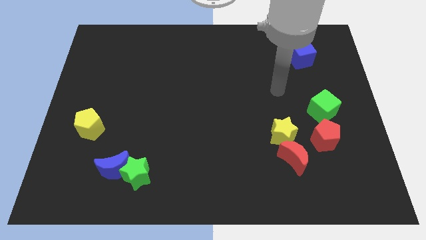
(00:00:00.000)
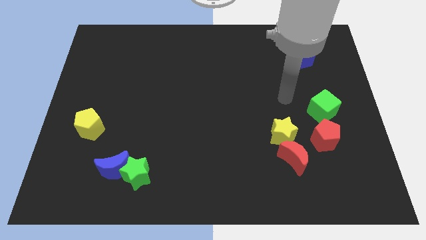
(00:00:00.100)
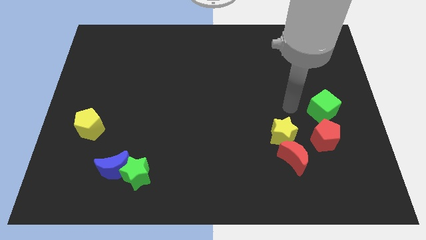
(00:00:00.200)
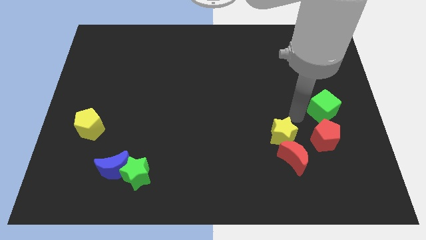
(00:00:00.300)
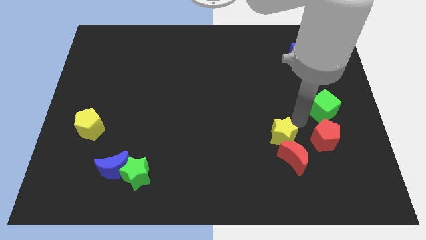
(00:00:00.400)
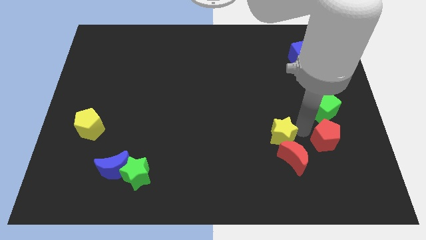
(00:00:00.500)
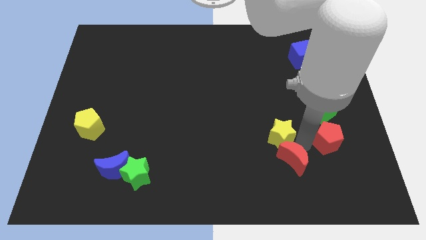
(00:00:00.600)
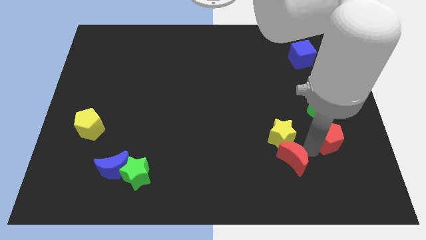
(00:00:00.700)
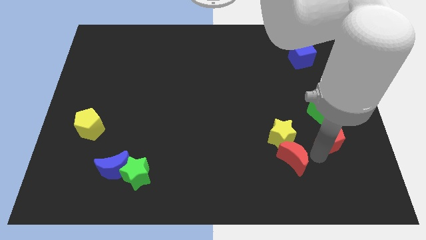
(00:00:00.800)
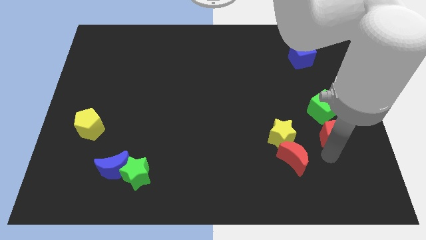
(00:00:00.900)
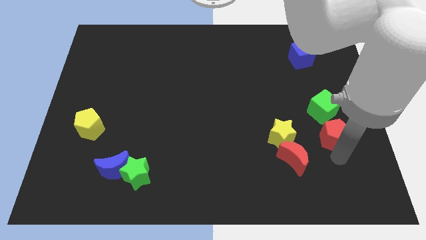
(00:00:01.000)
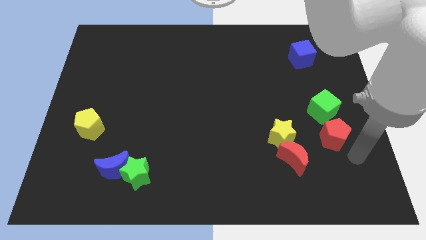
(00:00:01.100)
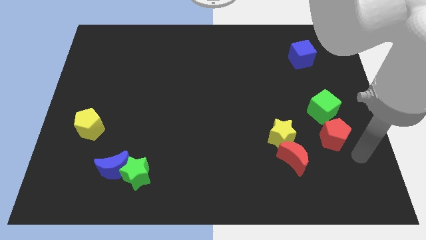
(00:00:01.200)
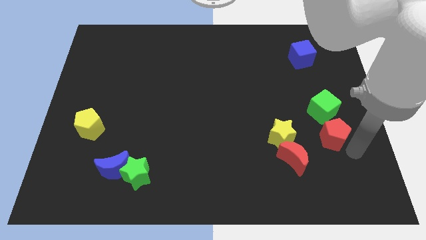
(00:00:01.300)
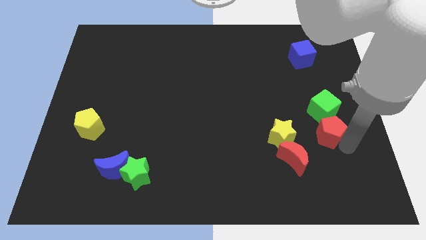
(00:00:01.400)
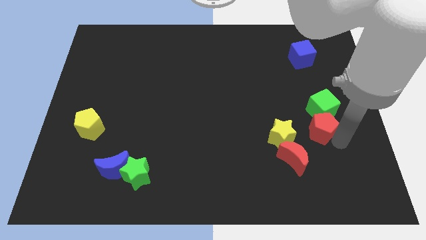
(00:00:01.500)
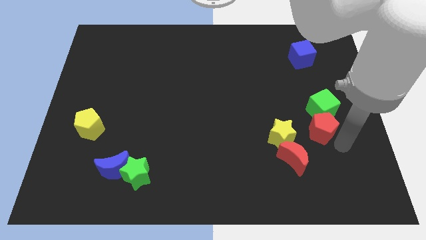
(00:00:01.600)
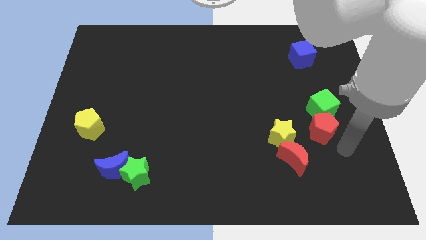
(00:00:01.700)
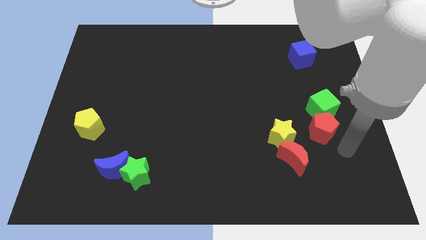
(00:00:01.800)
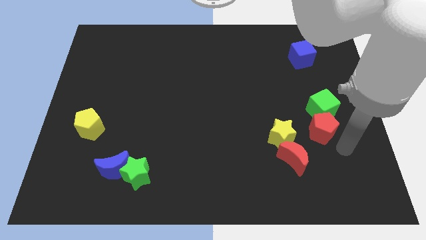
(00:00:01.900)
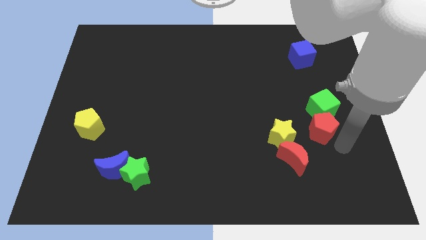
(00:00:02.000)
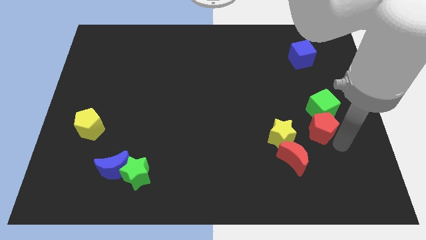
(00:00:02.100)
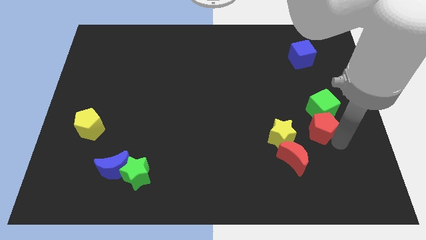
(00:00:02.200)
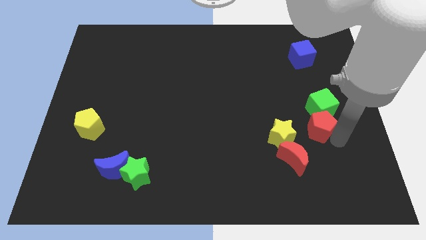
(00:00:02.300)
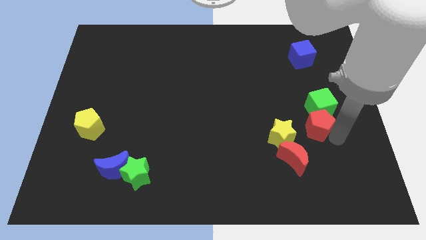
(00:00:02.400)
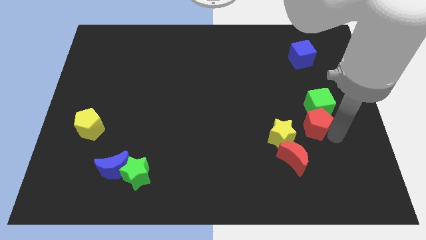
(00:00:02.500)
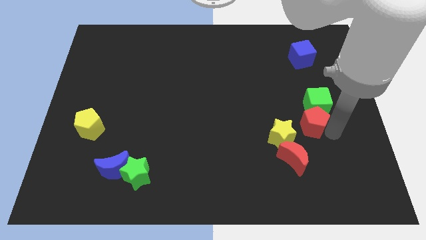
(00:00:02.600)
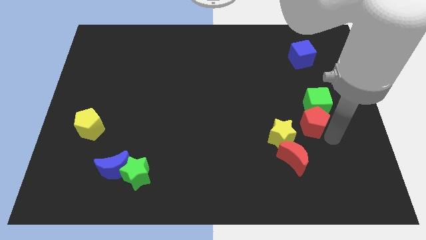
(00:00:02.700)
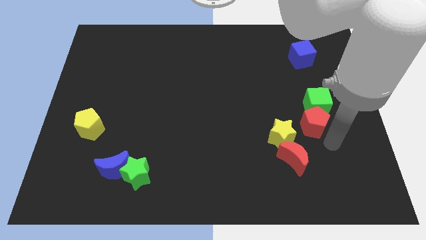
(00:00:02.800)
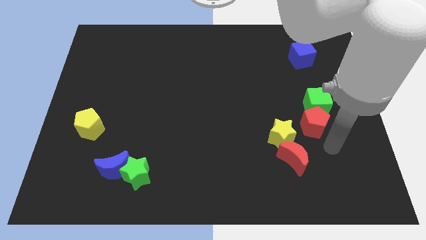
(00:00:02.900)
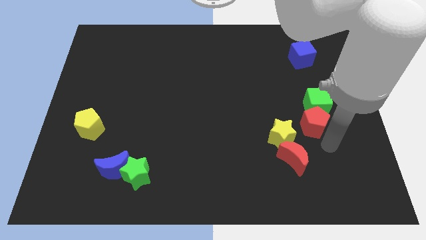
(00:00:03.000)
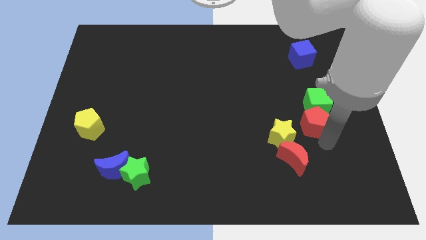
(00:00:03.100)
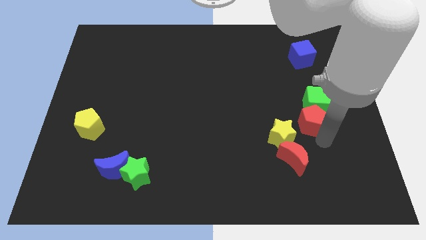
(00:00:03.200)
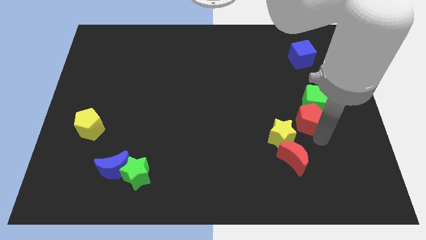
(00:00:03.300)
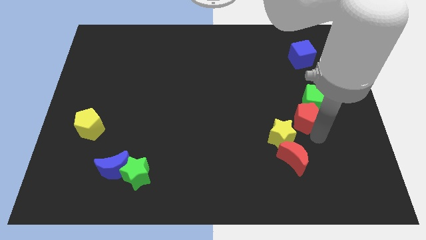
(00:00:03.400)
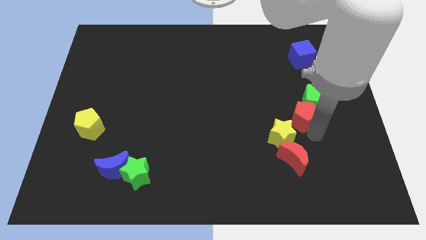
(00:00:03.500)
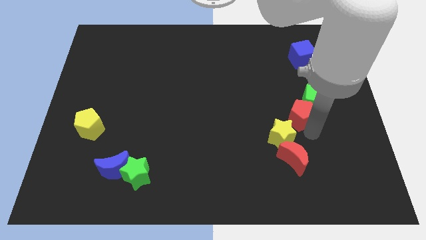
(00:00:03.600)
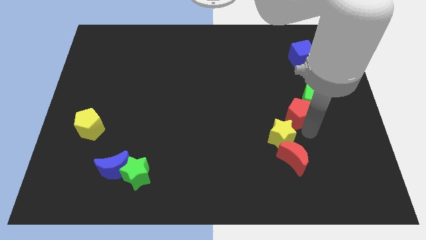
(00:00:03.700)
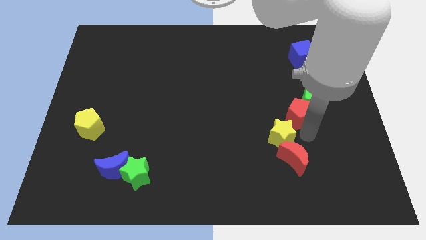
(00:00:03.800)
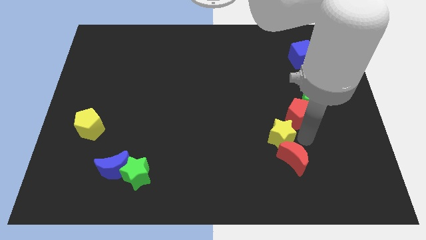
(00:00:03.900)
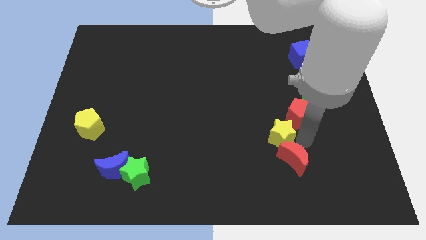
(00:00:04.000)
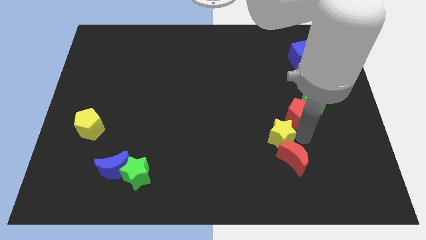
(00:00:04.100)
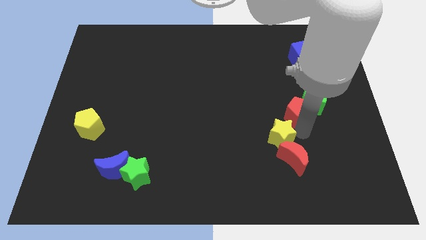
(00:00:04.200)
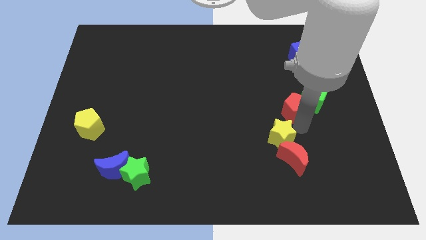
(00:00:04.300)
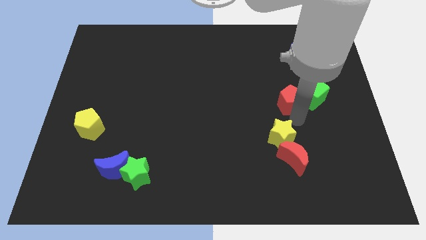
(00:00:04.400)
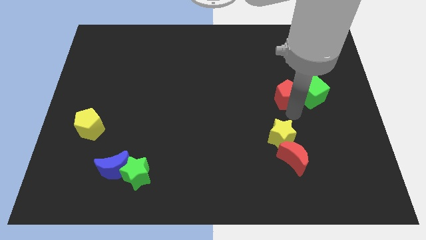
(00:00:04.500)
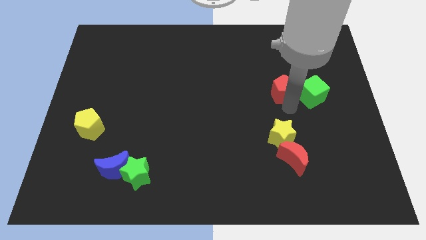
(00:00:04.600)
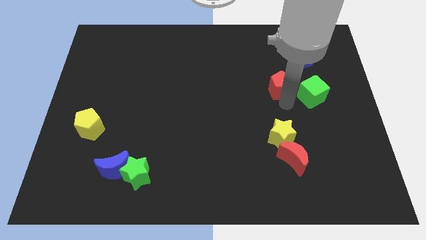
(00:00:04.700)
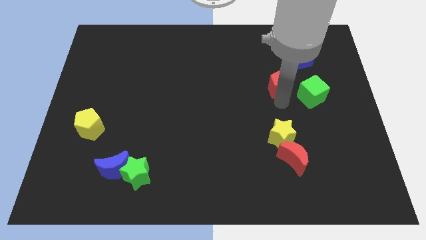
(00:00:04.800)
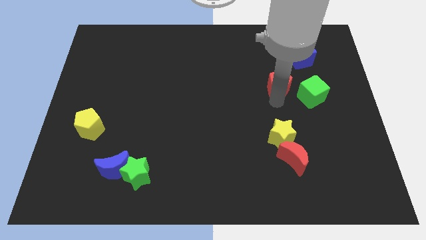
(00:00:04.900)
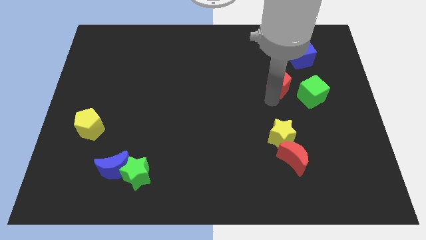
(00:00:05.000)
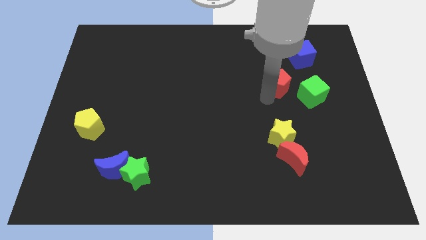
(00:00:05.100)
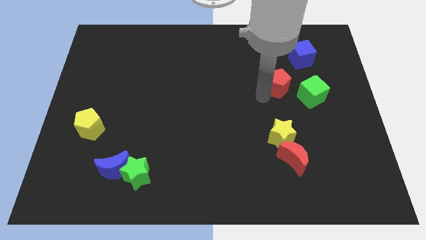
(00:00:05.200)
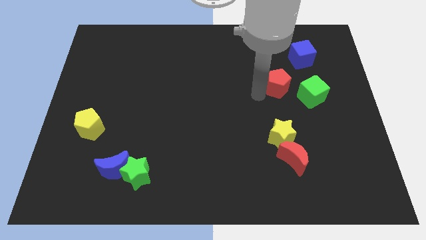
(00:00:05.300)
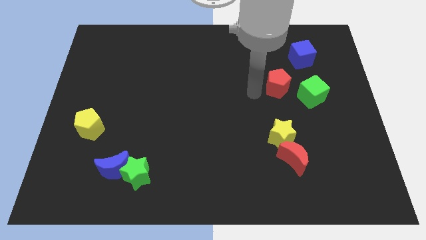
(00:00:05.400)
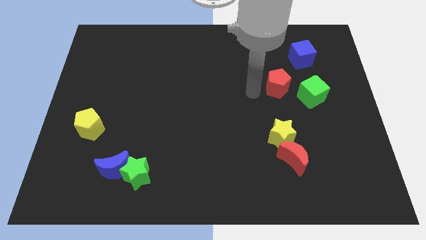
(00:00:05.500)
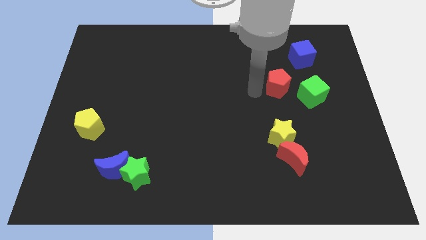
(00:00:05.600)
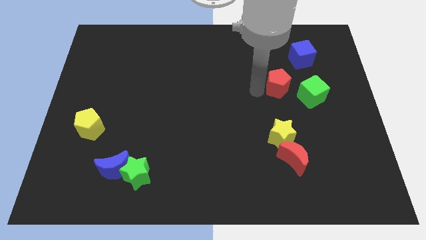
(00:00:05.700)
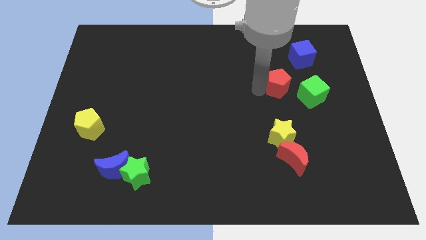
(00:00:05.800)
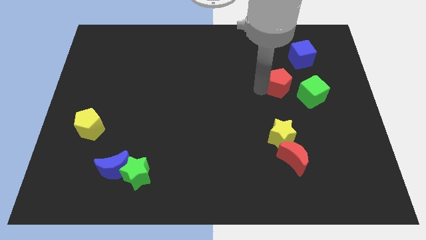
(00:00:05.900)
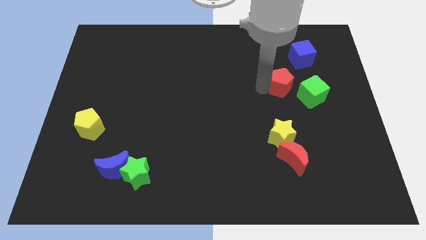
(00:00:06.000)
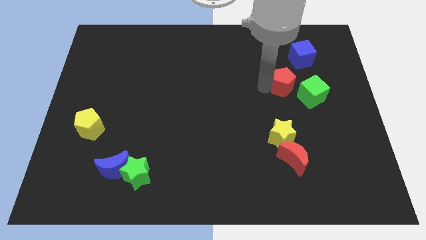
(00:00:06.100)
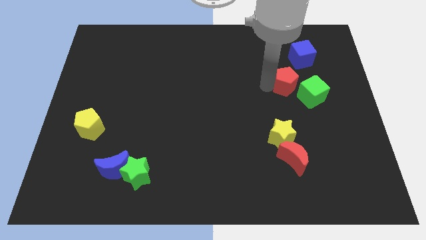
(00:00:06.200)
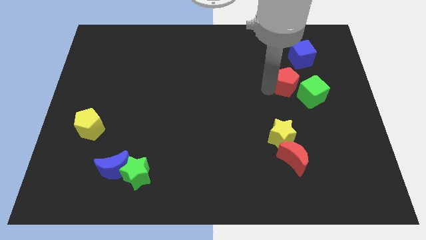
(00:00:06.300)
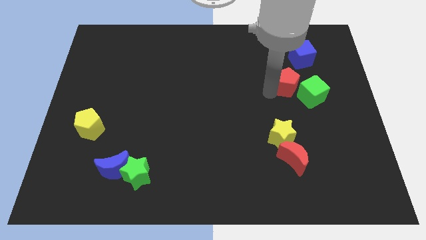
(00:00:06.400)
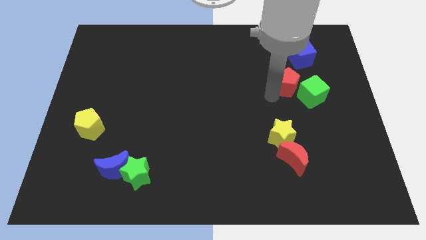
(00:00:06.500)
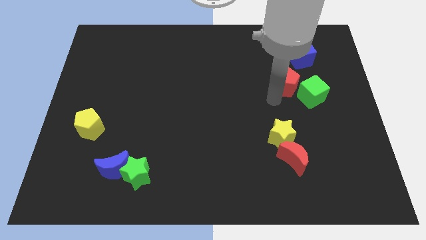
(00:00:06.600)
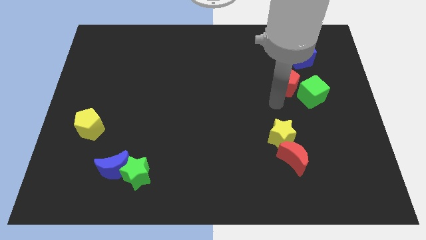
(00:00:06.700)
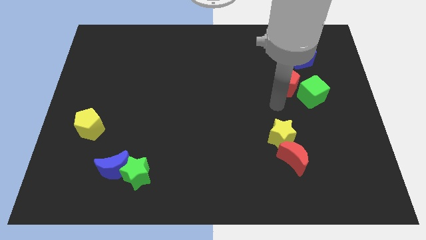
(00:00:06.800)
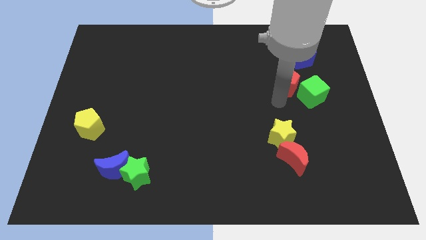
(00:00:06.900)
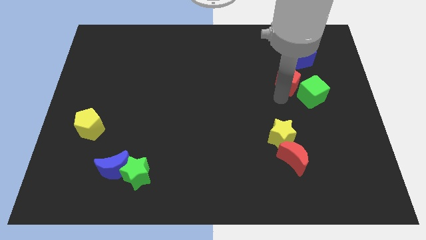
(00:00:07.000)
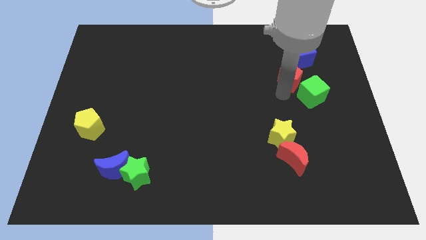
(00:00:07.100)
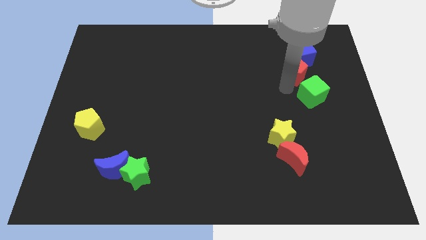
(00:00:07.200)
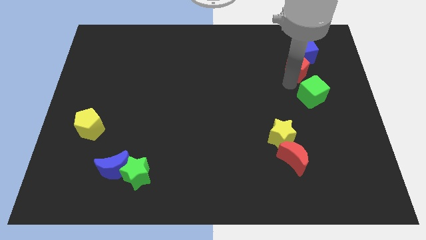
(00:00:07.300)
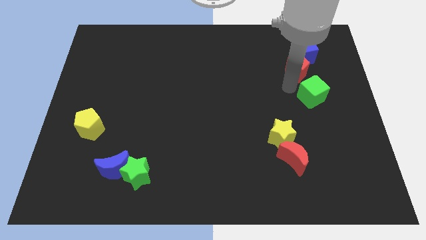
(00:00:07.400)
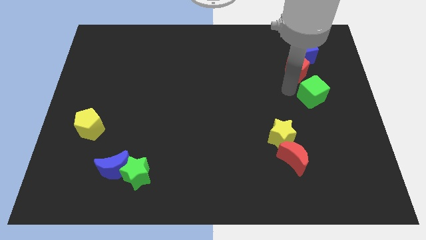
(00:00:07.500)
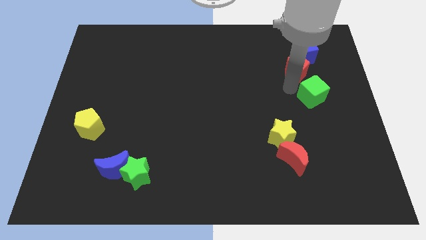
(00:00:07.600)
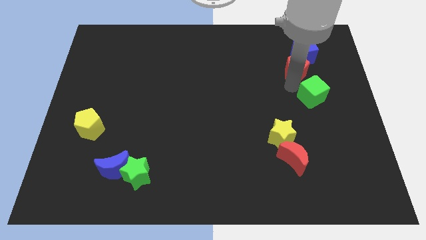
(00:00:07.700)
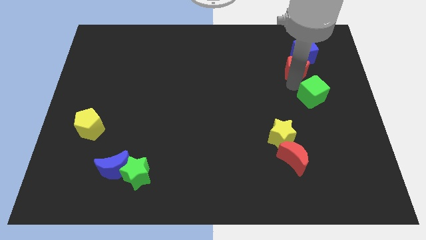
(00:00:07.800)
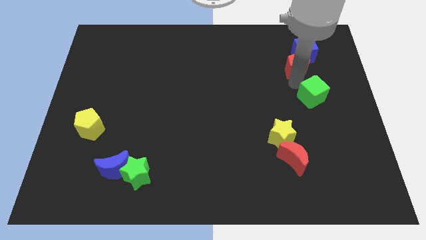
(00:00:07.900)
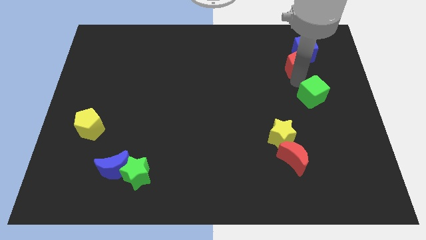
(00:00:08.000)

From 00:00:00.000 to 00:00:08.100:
put the red pentagon towards the blue cube
